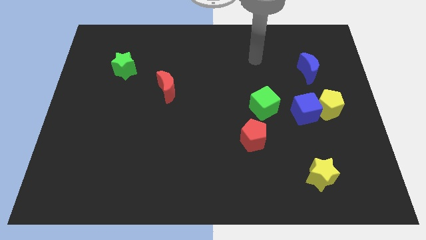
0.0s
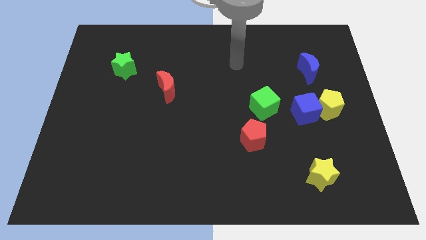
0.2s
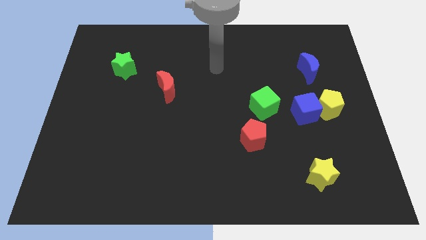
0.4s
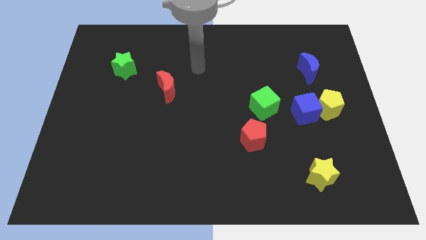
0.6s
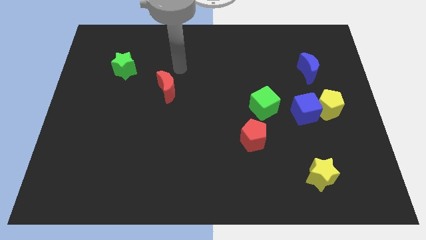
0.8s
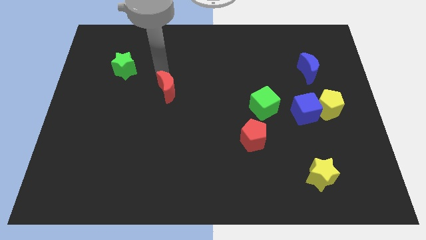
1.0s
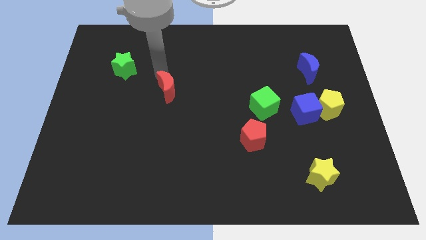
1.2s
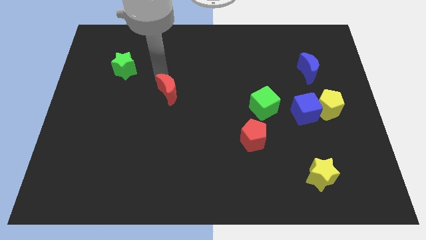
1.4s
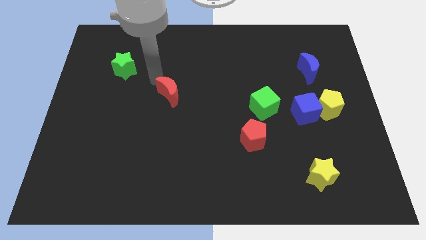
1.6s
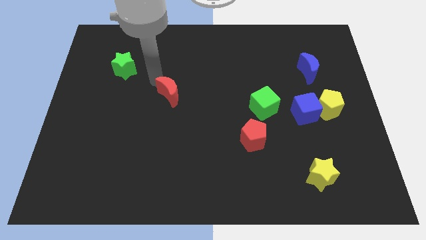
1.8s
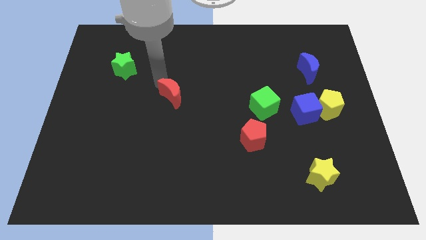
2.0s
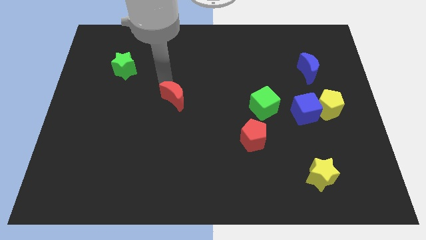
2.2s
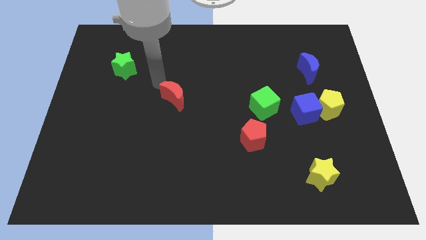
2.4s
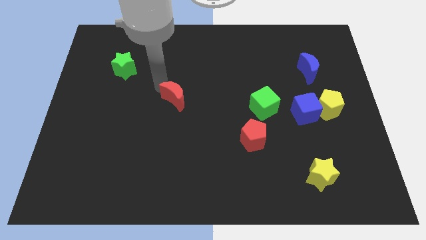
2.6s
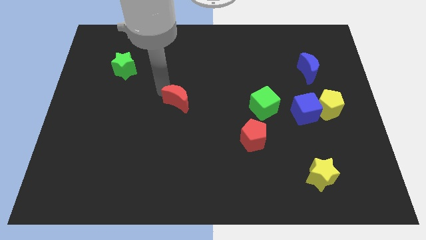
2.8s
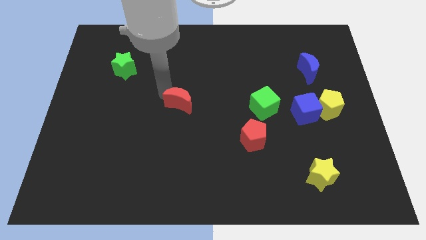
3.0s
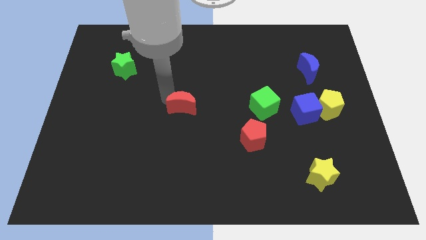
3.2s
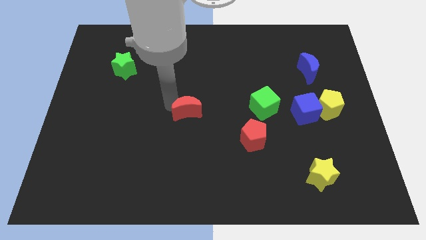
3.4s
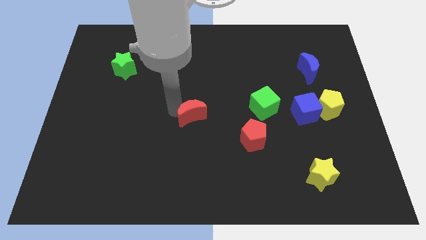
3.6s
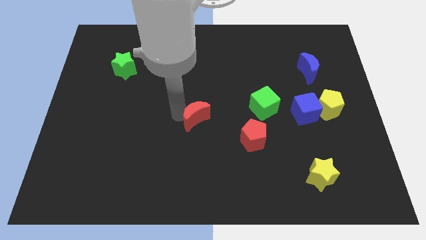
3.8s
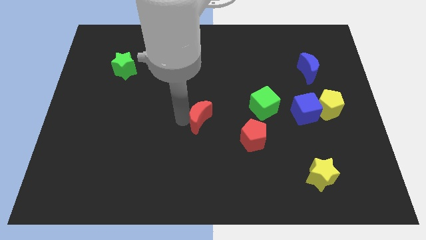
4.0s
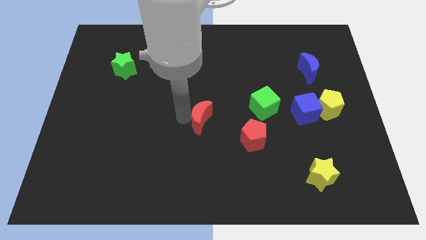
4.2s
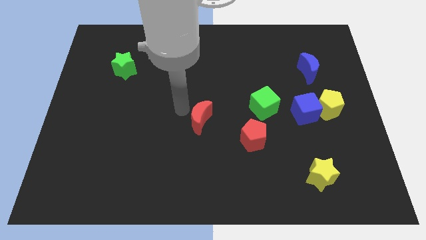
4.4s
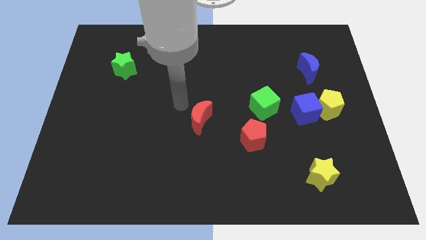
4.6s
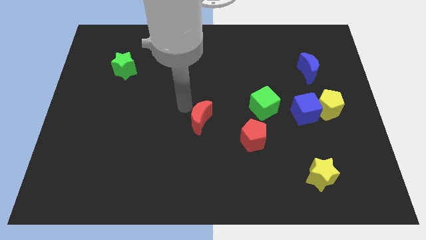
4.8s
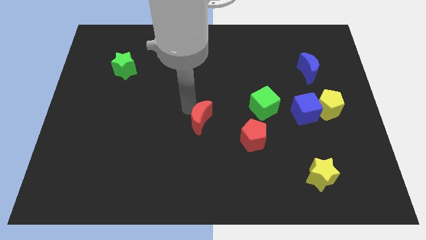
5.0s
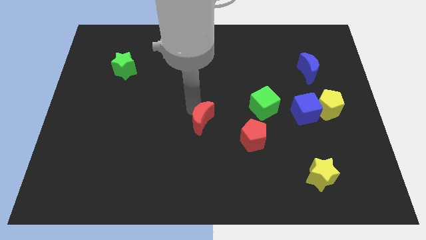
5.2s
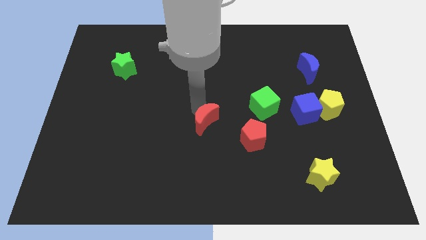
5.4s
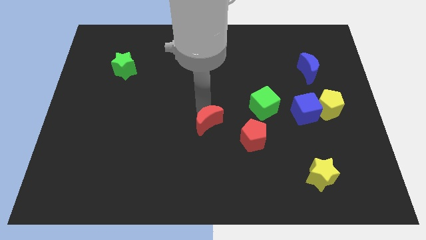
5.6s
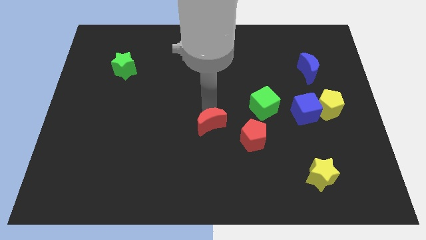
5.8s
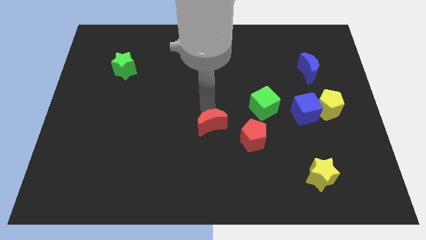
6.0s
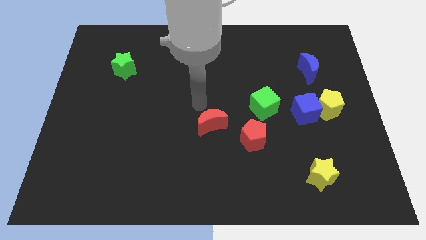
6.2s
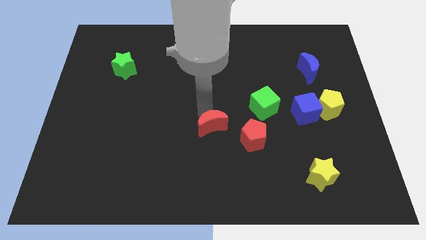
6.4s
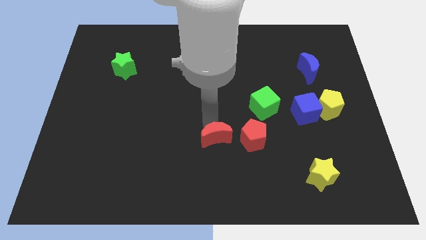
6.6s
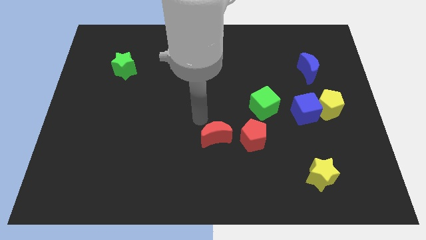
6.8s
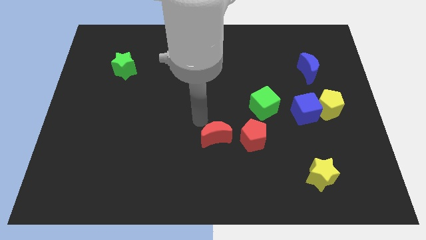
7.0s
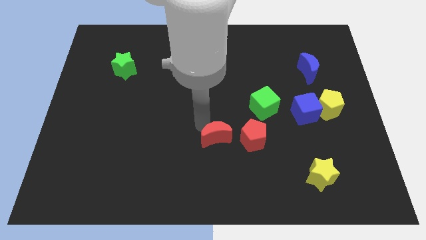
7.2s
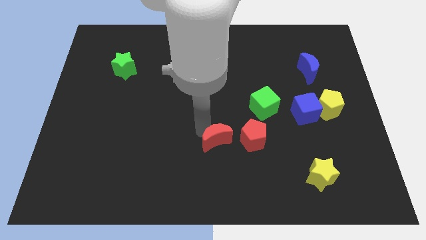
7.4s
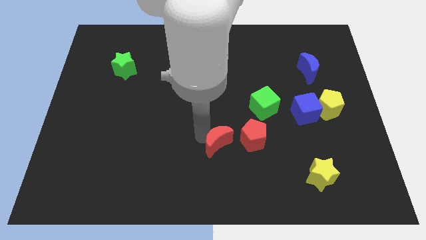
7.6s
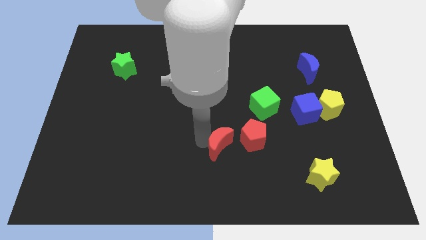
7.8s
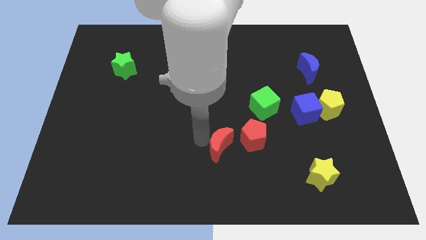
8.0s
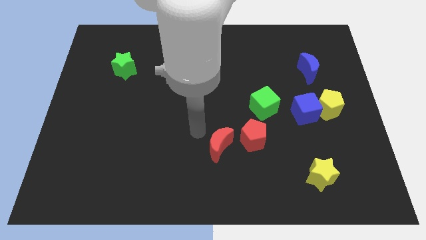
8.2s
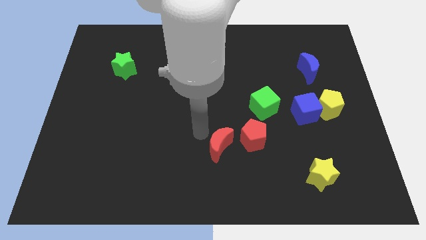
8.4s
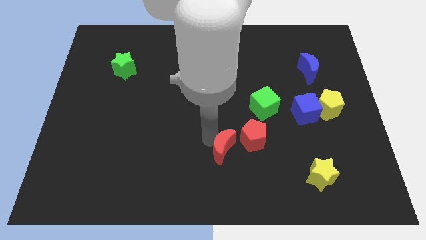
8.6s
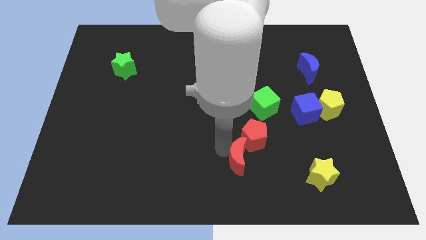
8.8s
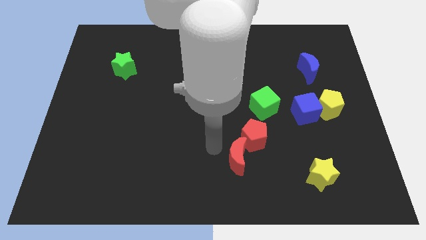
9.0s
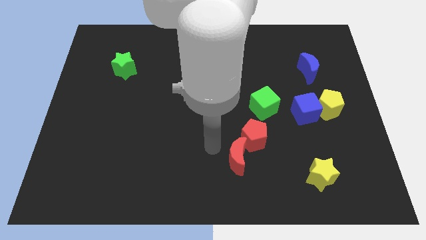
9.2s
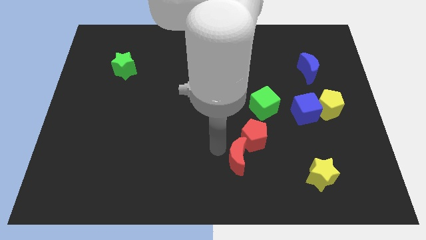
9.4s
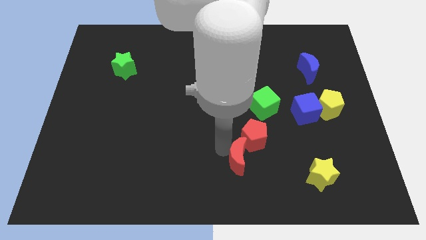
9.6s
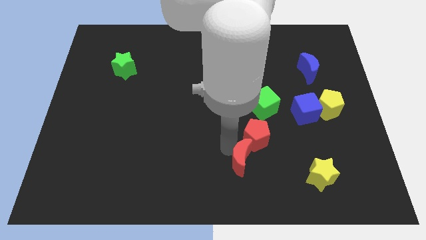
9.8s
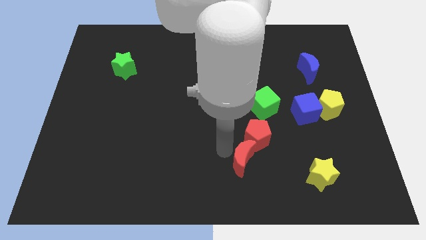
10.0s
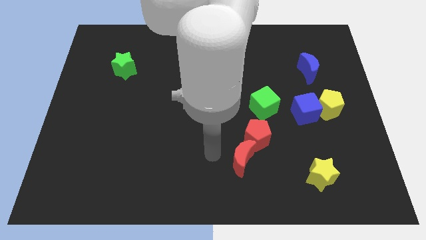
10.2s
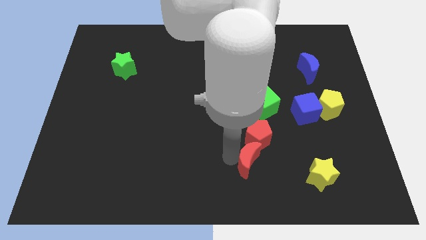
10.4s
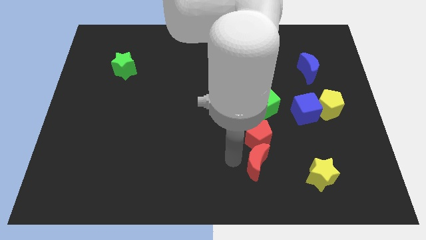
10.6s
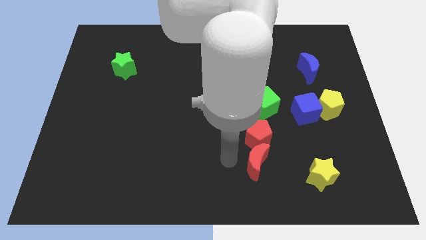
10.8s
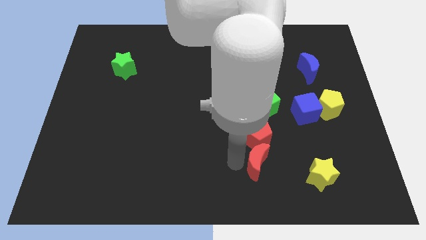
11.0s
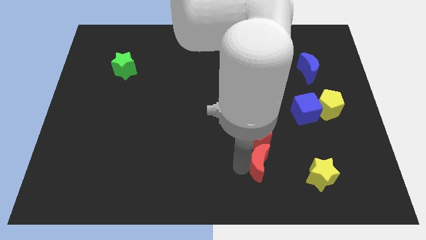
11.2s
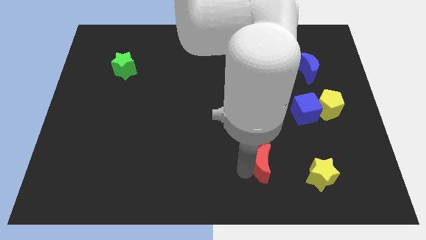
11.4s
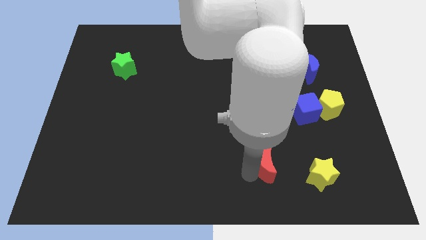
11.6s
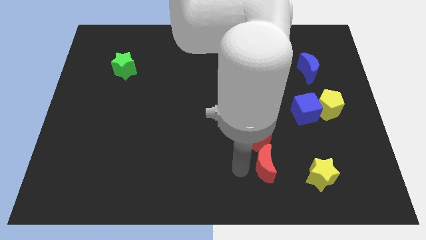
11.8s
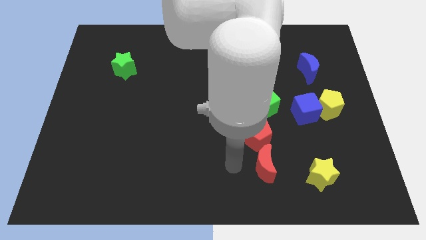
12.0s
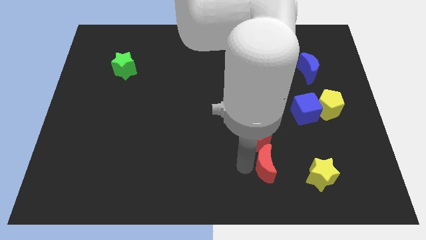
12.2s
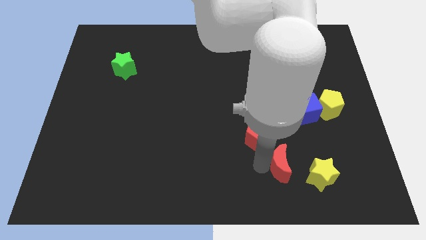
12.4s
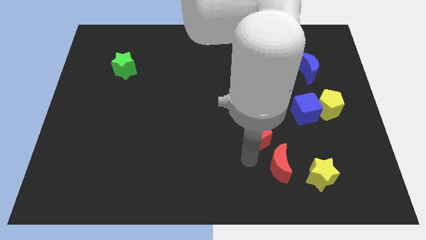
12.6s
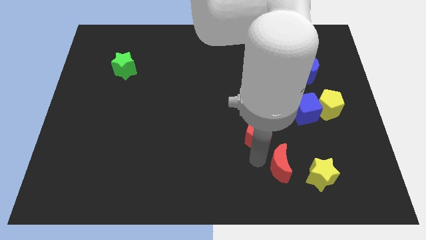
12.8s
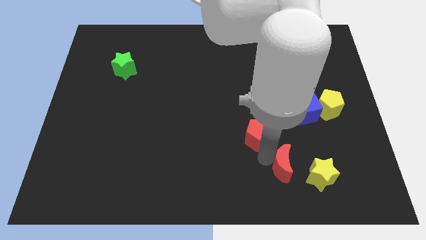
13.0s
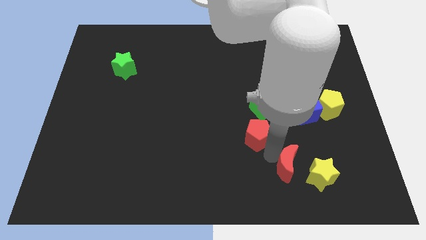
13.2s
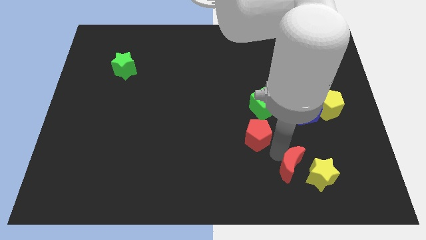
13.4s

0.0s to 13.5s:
slide the red moon towards the yellow star

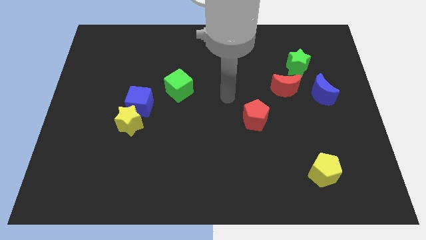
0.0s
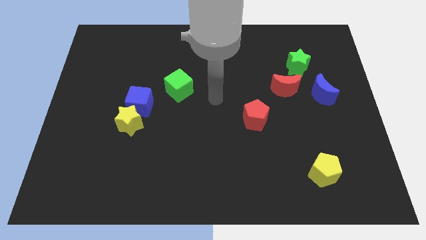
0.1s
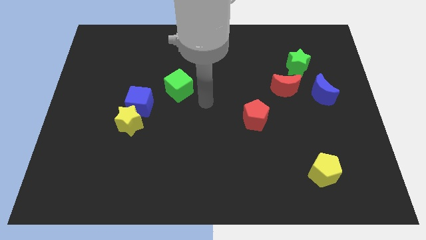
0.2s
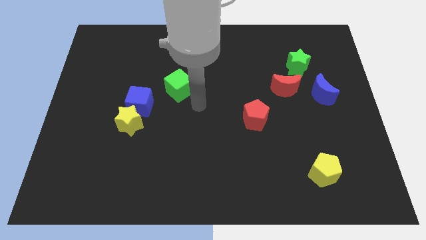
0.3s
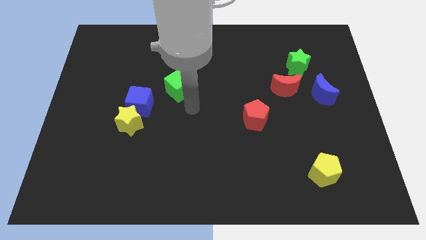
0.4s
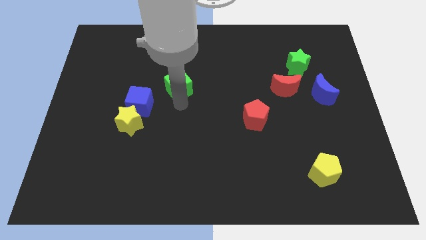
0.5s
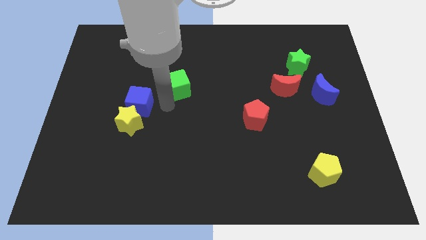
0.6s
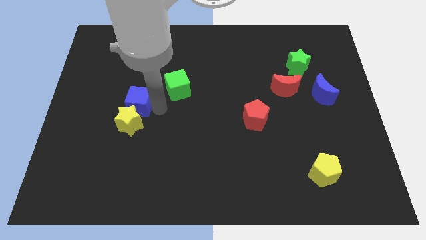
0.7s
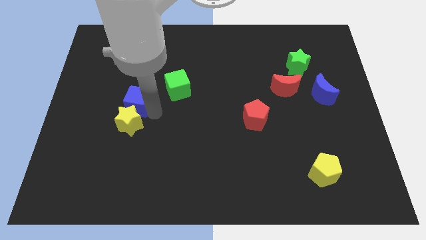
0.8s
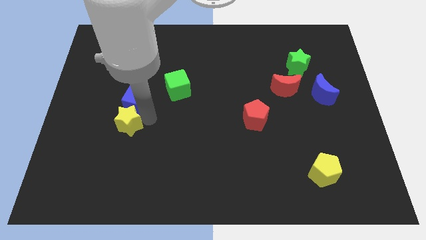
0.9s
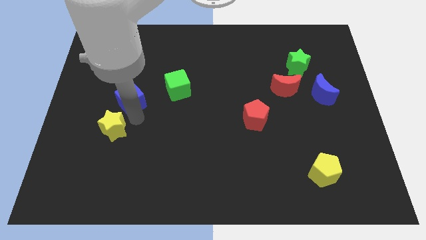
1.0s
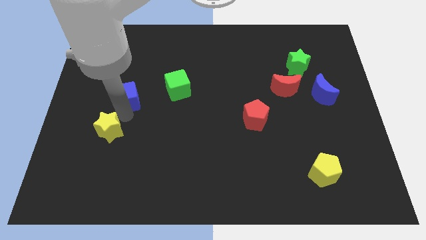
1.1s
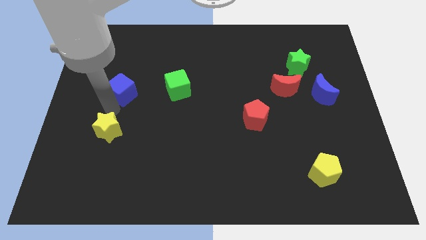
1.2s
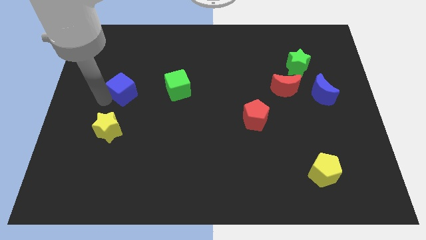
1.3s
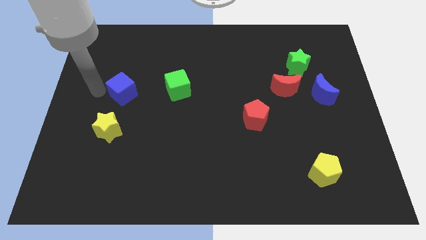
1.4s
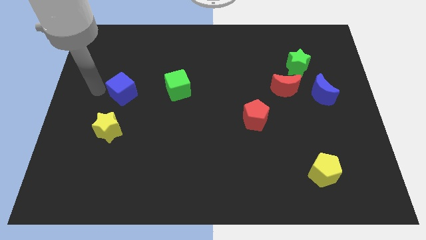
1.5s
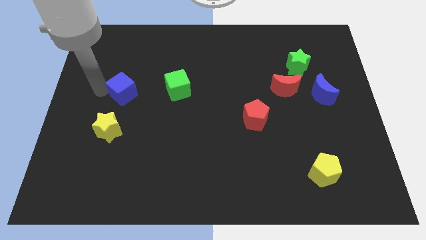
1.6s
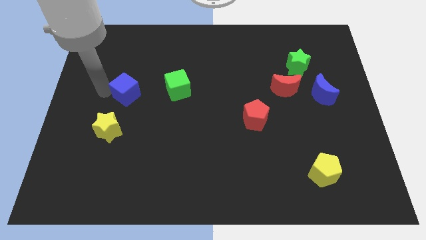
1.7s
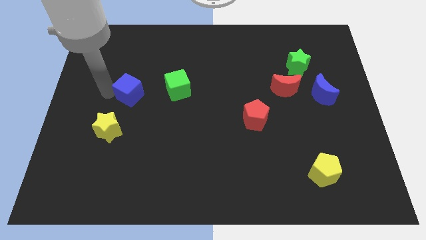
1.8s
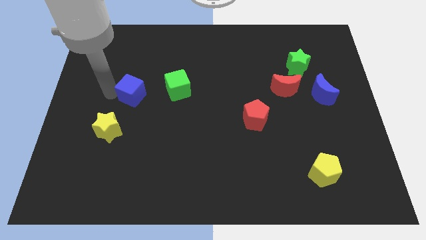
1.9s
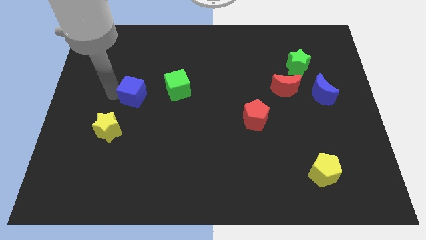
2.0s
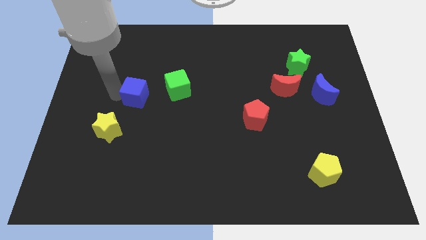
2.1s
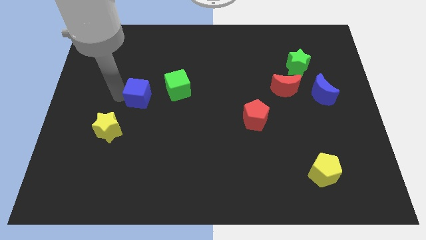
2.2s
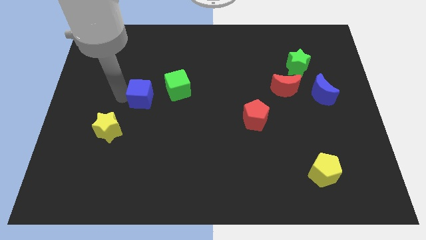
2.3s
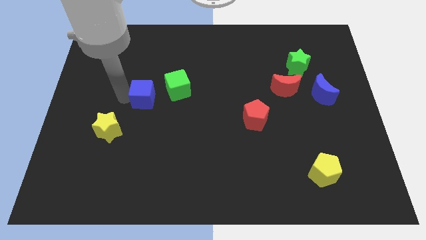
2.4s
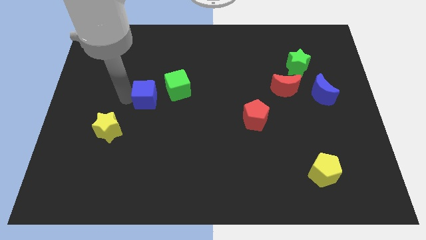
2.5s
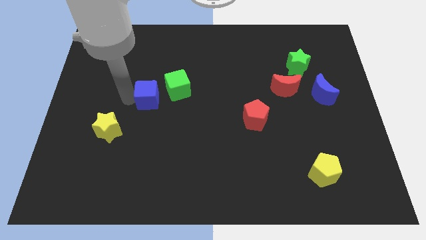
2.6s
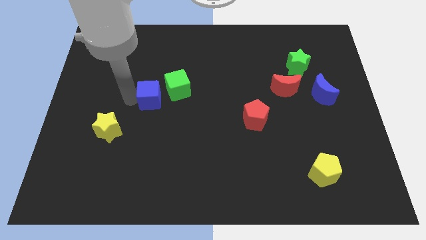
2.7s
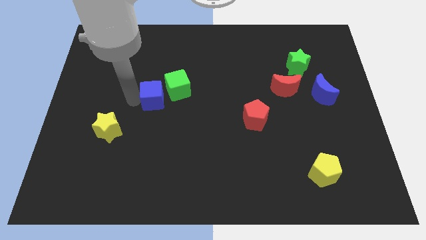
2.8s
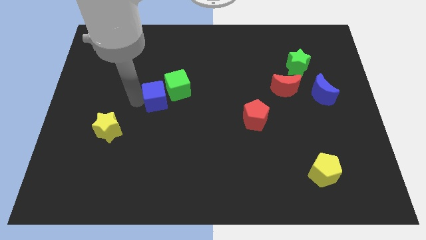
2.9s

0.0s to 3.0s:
push the blue cube towards the green cube
